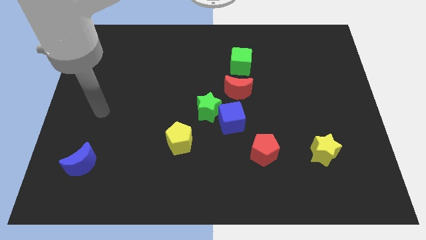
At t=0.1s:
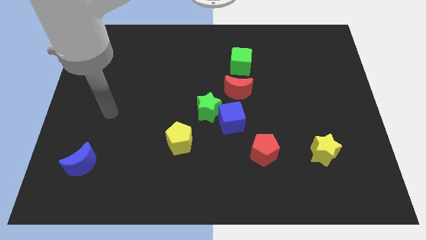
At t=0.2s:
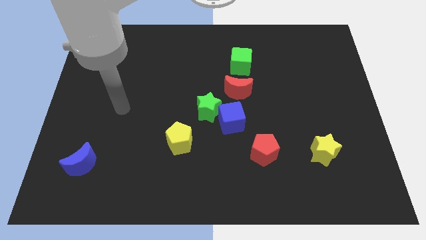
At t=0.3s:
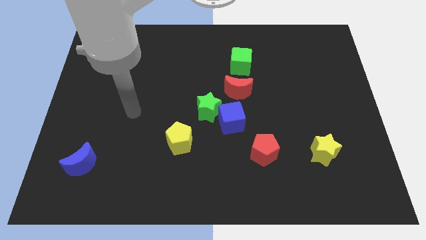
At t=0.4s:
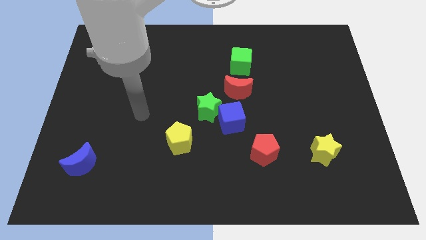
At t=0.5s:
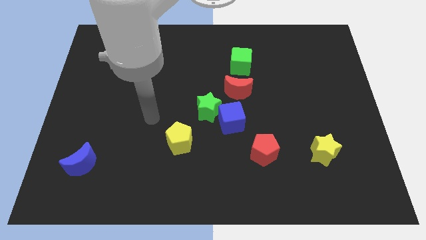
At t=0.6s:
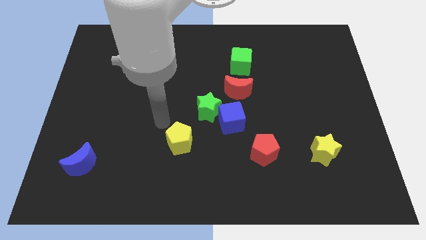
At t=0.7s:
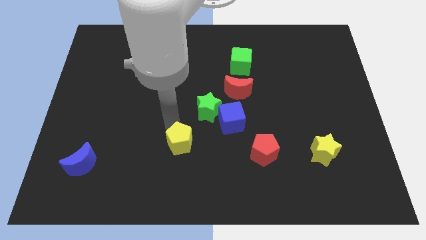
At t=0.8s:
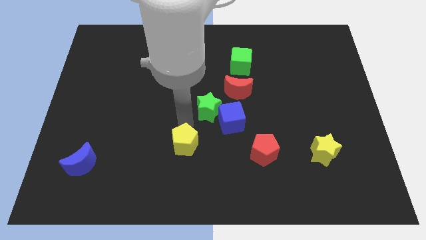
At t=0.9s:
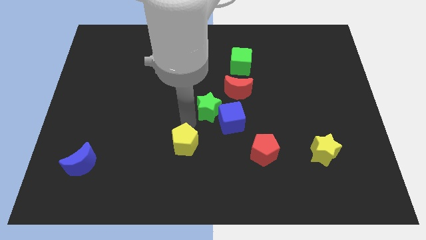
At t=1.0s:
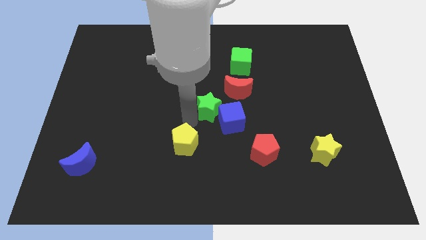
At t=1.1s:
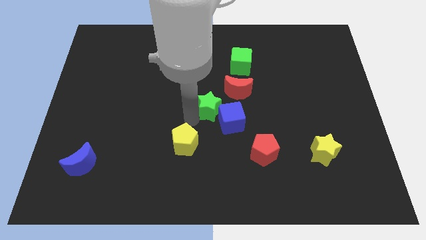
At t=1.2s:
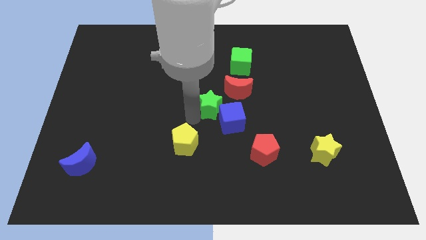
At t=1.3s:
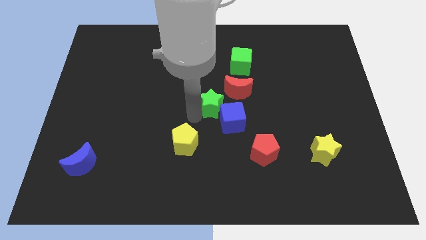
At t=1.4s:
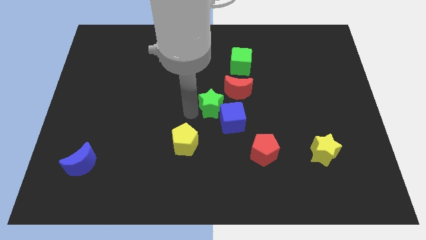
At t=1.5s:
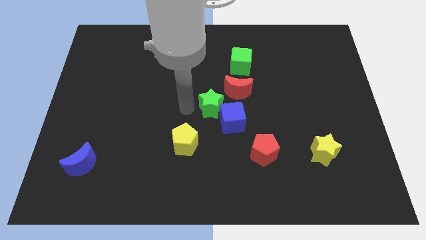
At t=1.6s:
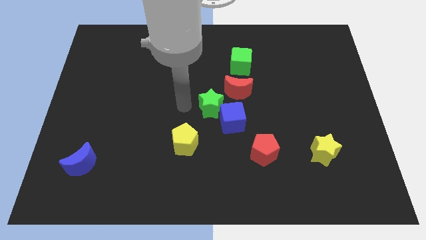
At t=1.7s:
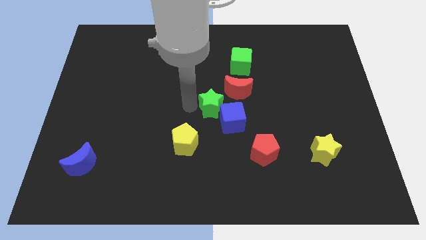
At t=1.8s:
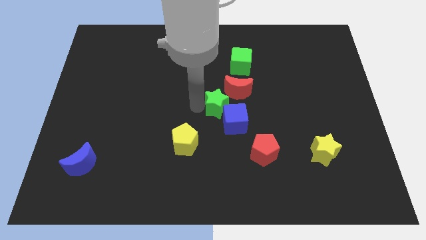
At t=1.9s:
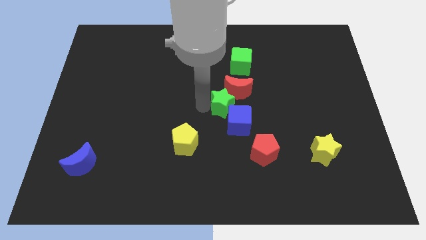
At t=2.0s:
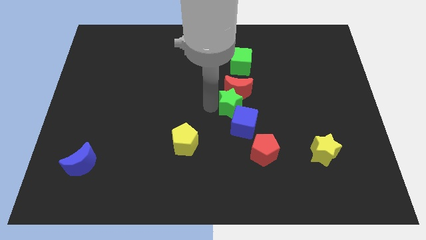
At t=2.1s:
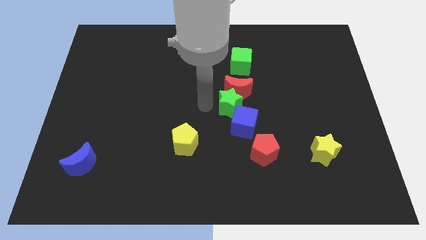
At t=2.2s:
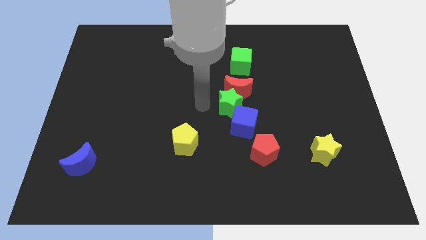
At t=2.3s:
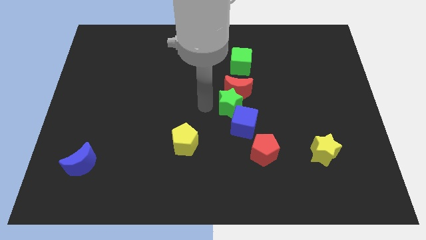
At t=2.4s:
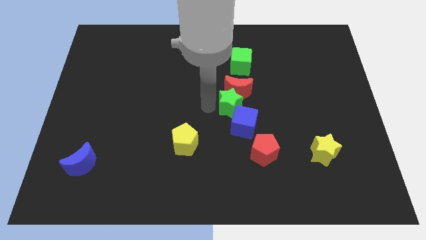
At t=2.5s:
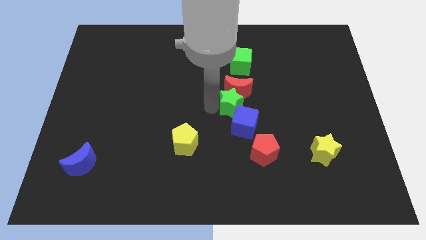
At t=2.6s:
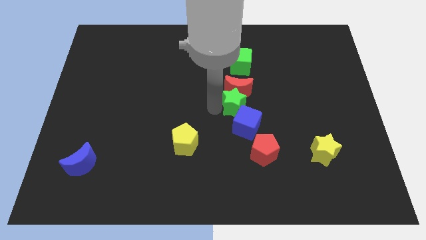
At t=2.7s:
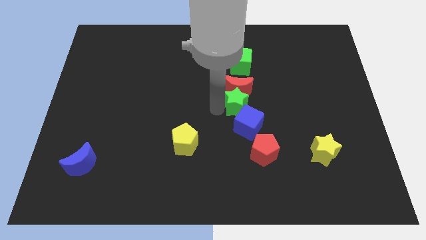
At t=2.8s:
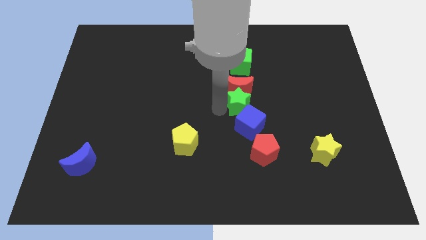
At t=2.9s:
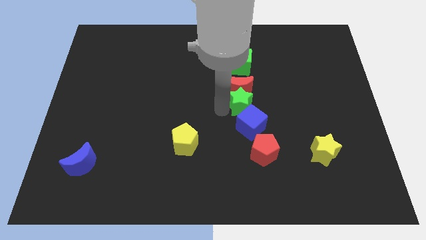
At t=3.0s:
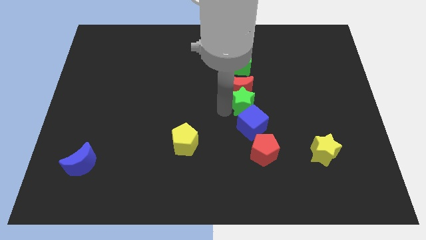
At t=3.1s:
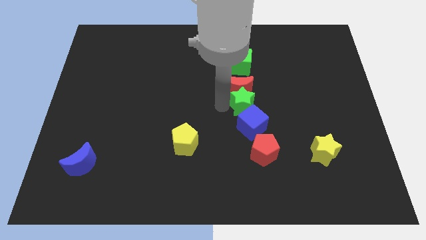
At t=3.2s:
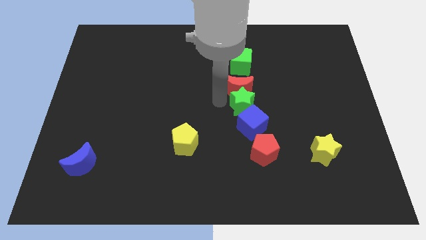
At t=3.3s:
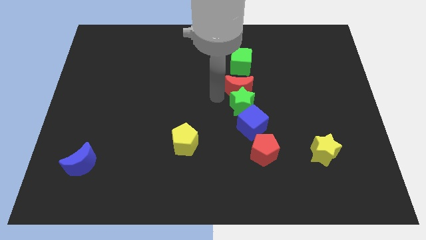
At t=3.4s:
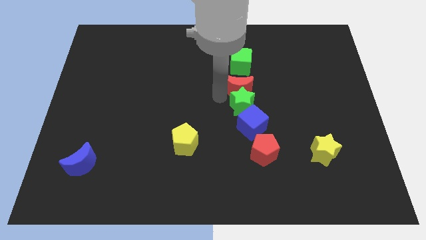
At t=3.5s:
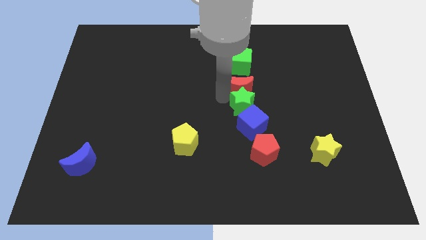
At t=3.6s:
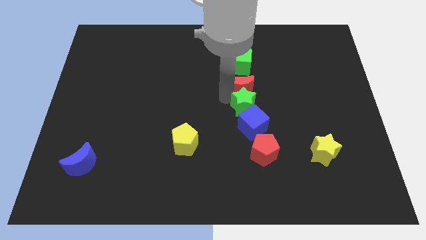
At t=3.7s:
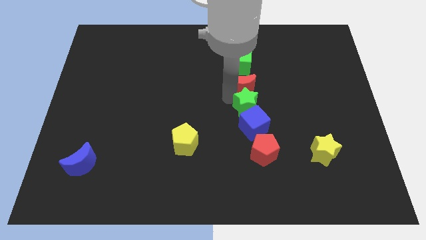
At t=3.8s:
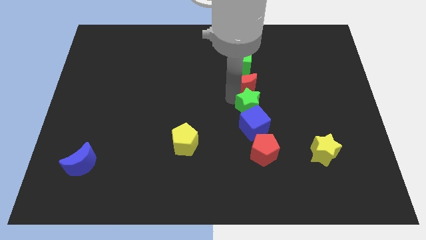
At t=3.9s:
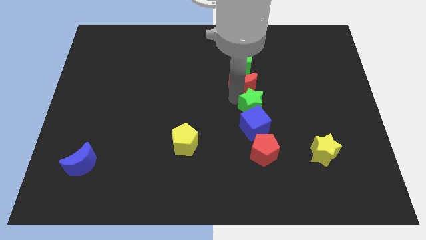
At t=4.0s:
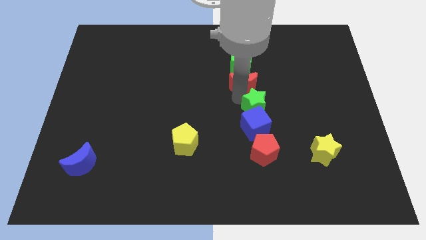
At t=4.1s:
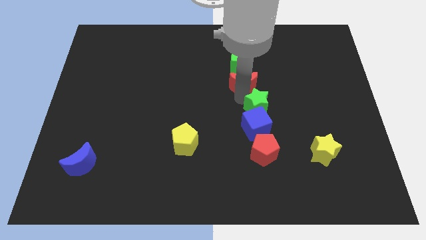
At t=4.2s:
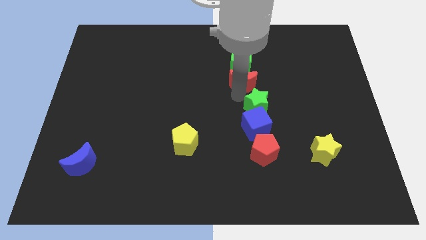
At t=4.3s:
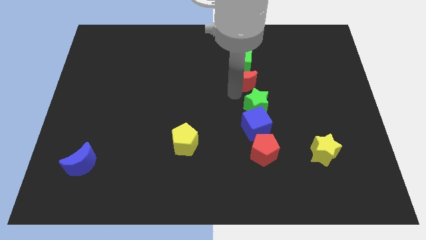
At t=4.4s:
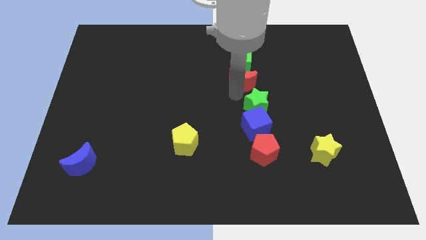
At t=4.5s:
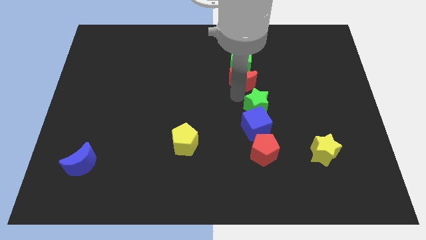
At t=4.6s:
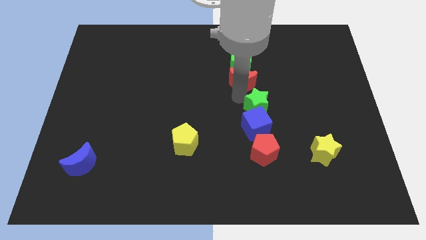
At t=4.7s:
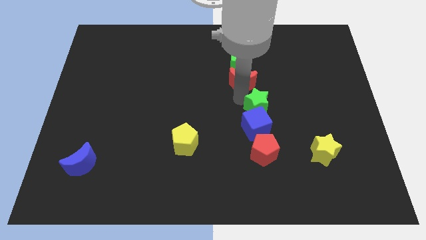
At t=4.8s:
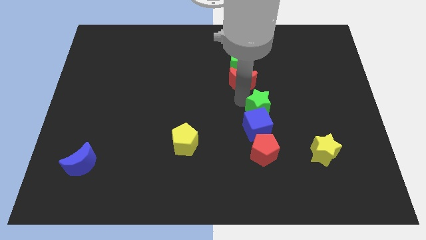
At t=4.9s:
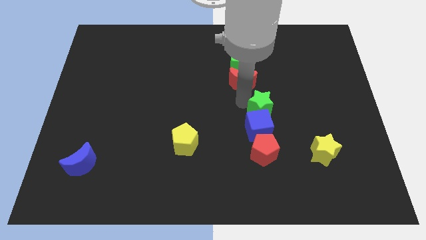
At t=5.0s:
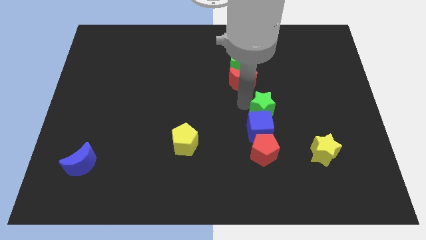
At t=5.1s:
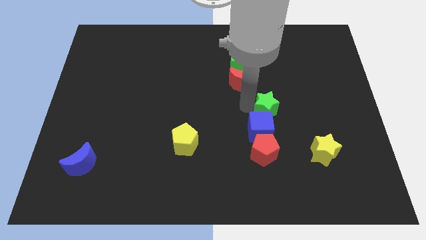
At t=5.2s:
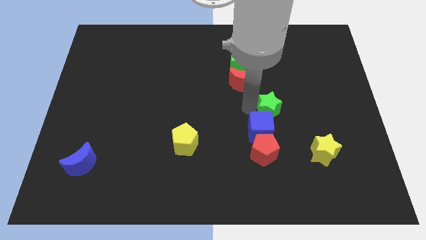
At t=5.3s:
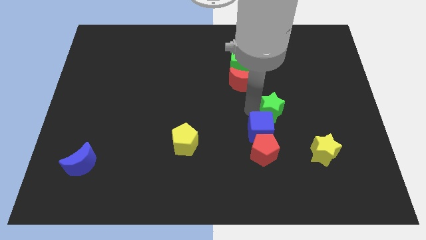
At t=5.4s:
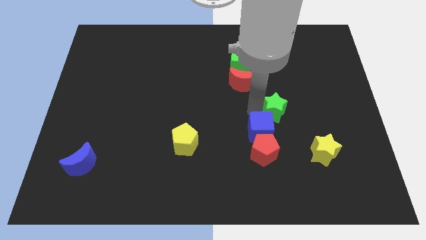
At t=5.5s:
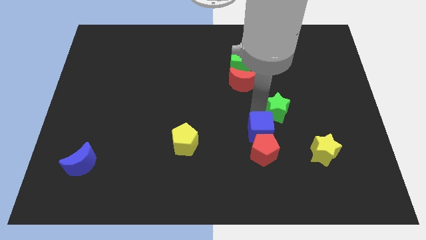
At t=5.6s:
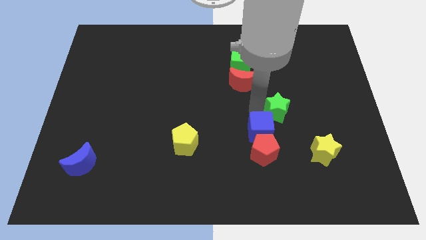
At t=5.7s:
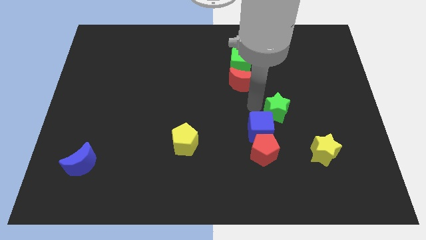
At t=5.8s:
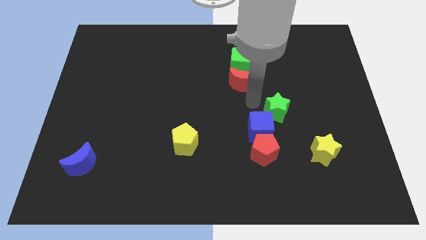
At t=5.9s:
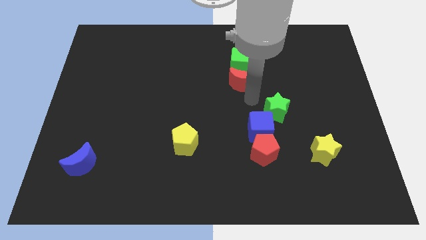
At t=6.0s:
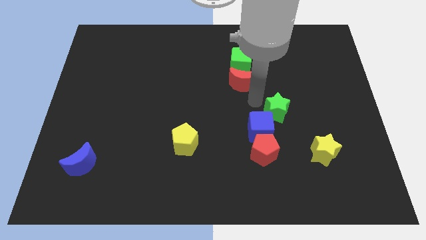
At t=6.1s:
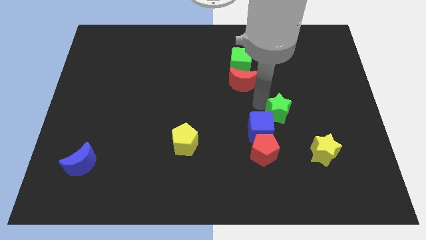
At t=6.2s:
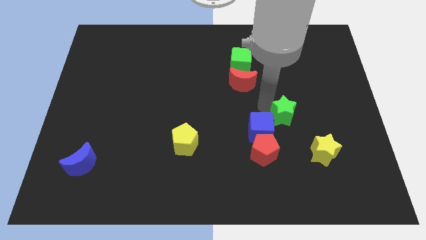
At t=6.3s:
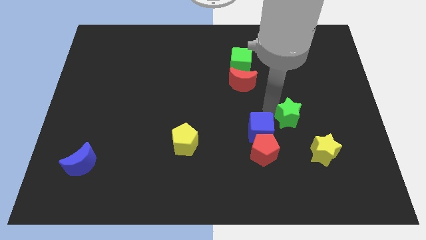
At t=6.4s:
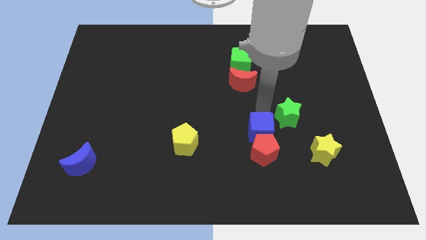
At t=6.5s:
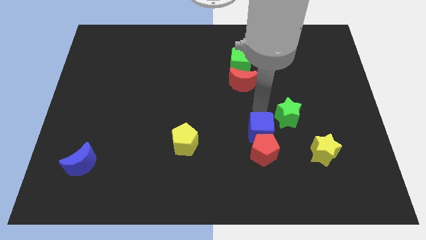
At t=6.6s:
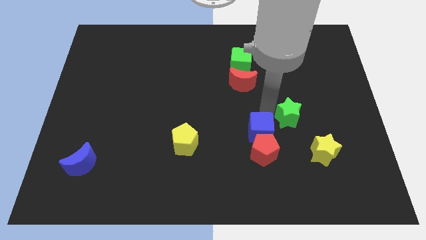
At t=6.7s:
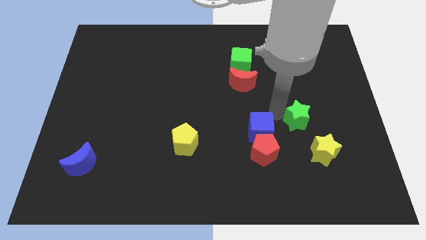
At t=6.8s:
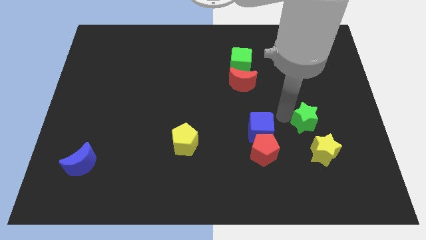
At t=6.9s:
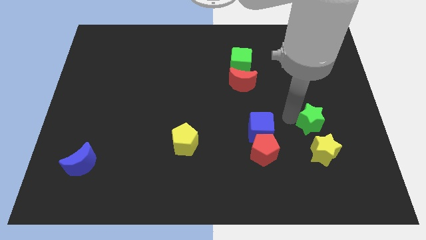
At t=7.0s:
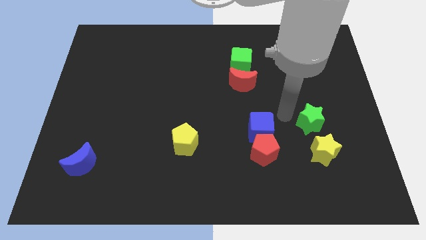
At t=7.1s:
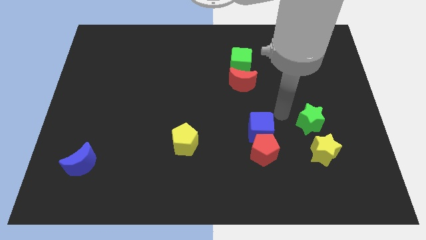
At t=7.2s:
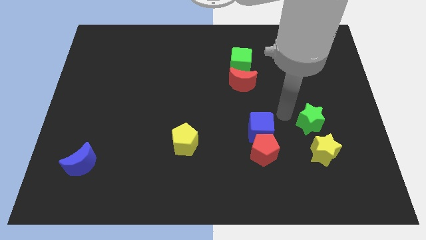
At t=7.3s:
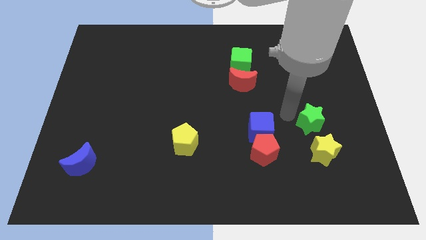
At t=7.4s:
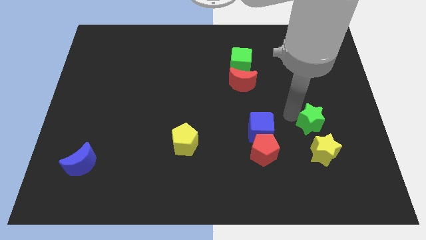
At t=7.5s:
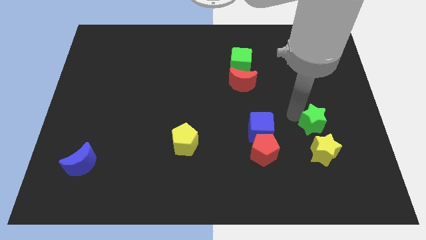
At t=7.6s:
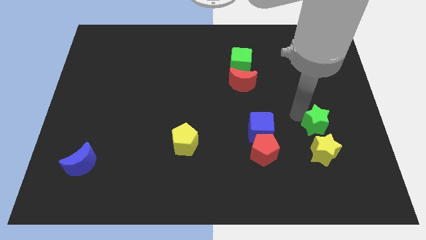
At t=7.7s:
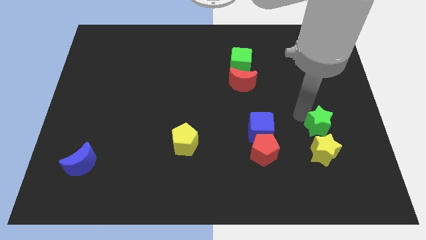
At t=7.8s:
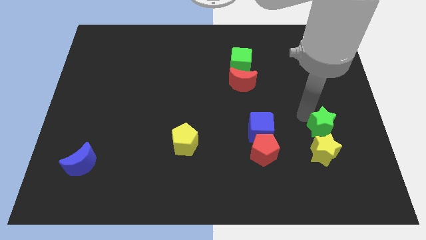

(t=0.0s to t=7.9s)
put the green star diagonally up and to the right of the yellow star

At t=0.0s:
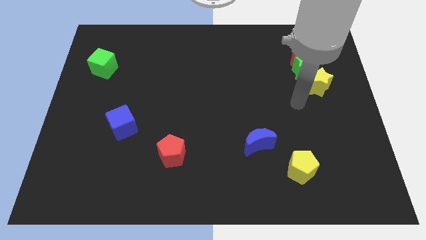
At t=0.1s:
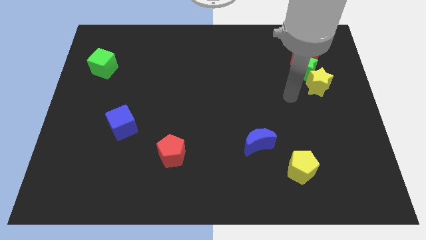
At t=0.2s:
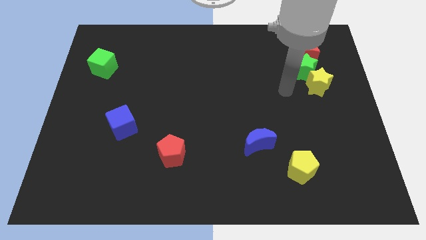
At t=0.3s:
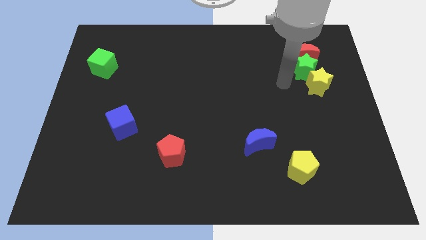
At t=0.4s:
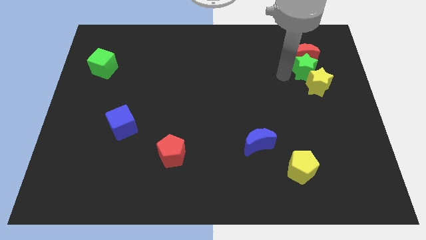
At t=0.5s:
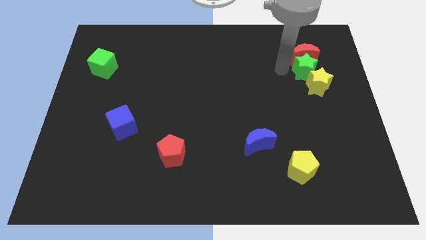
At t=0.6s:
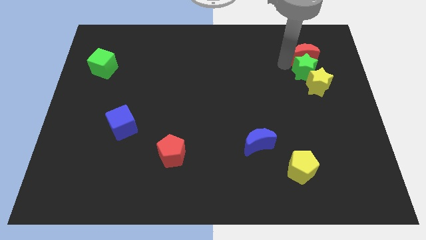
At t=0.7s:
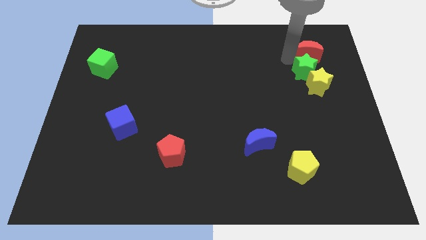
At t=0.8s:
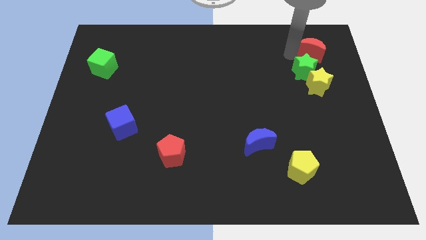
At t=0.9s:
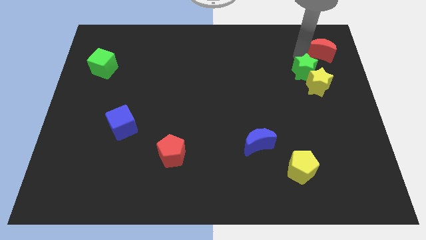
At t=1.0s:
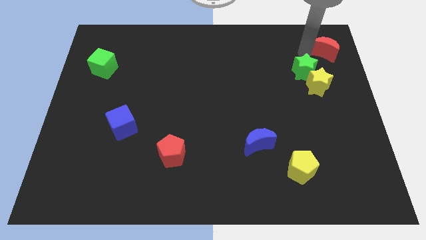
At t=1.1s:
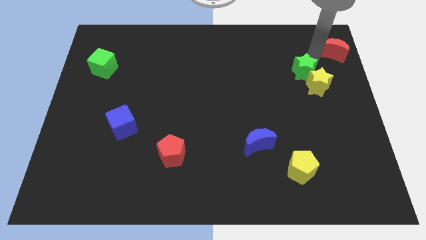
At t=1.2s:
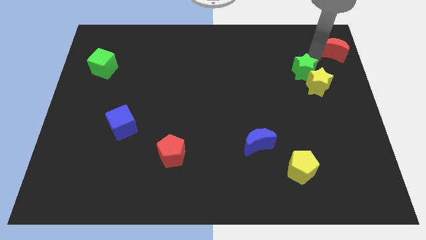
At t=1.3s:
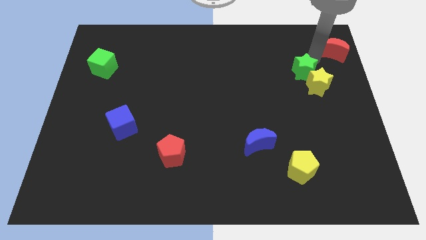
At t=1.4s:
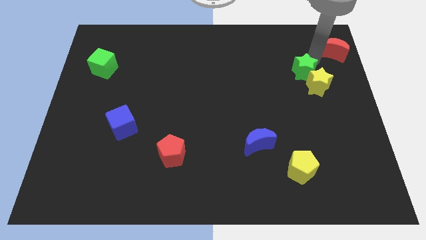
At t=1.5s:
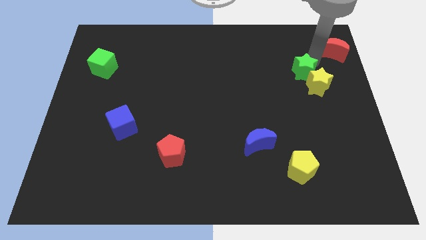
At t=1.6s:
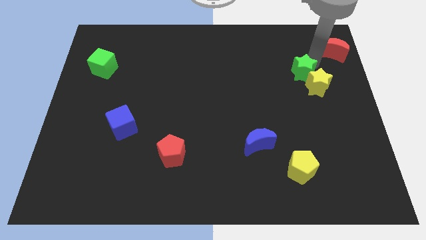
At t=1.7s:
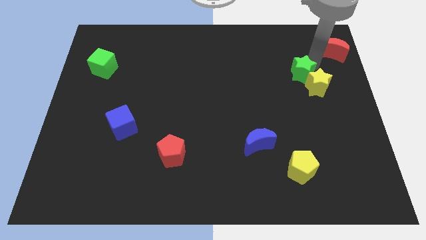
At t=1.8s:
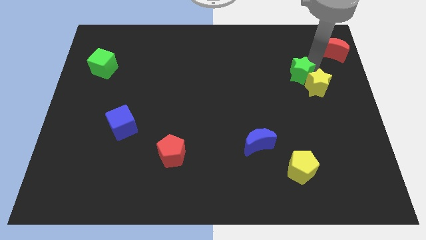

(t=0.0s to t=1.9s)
move the green star to the left side of the yellow star
